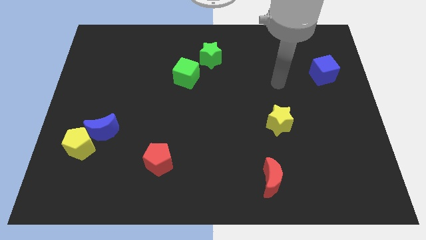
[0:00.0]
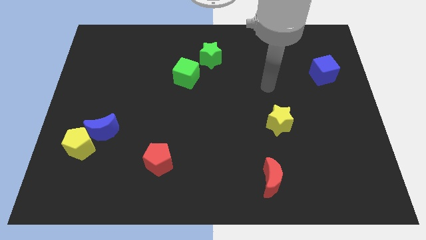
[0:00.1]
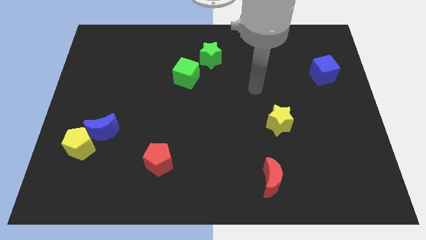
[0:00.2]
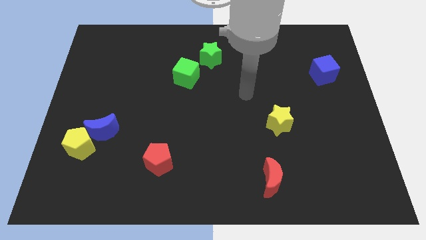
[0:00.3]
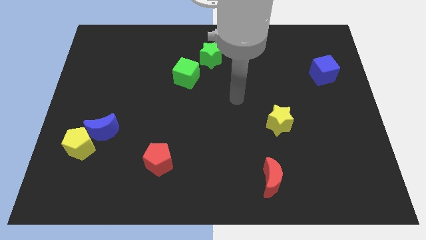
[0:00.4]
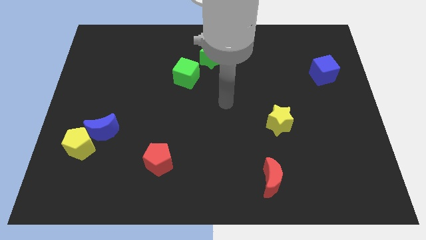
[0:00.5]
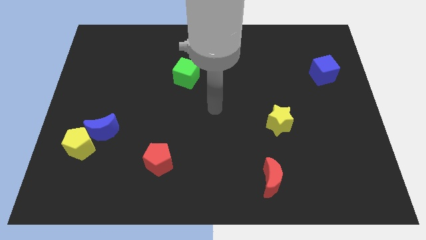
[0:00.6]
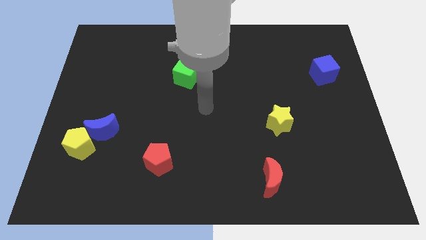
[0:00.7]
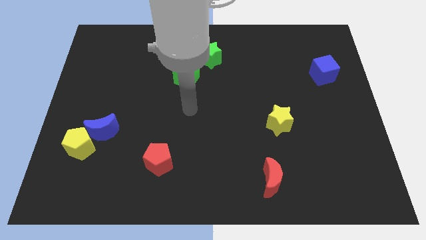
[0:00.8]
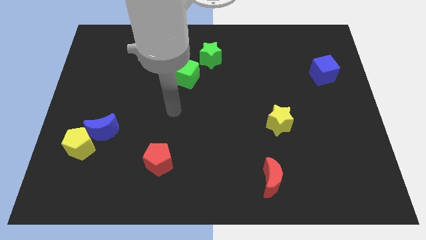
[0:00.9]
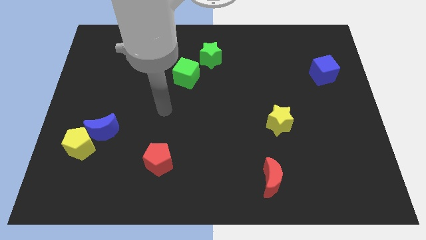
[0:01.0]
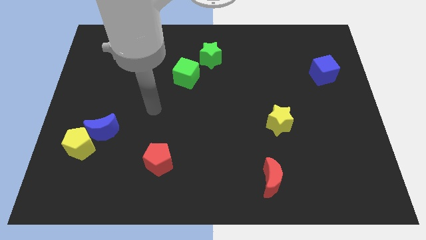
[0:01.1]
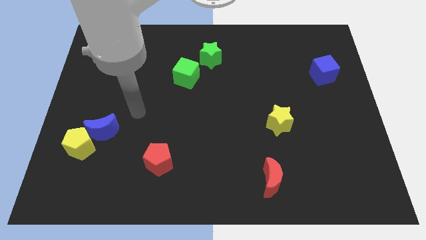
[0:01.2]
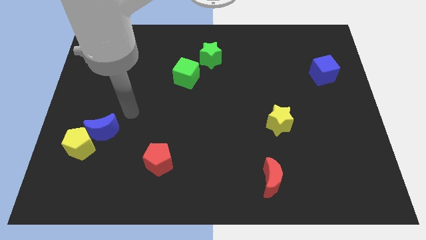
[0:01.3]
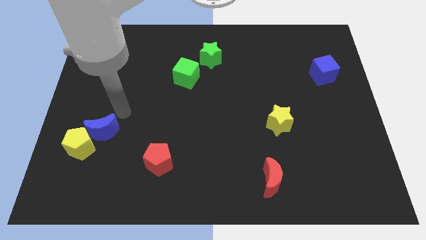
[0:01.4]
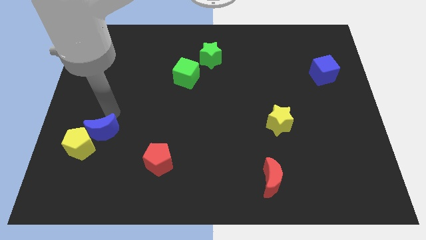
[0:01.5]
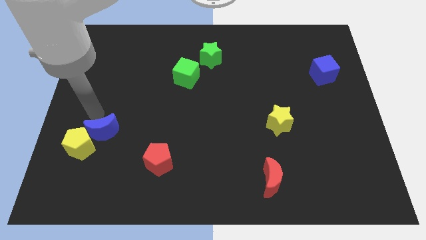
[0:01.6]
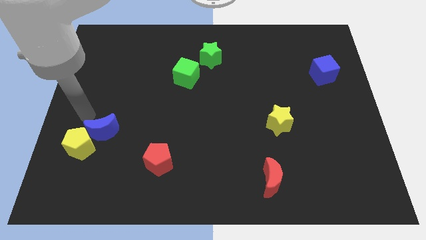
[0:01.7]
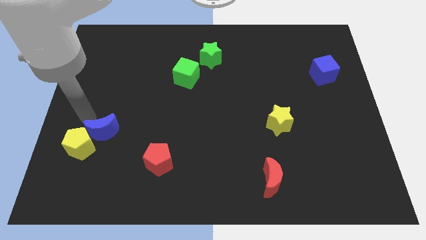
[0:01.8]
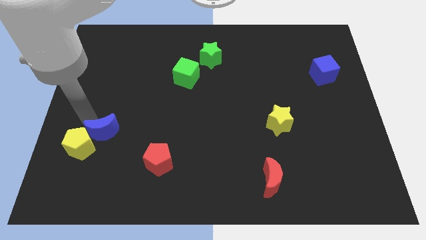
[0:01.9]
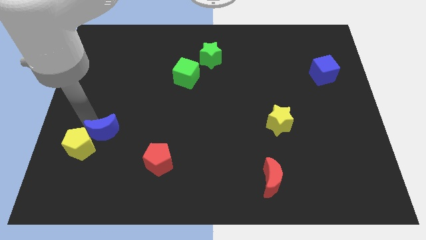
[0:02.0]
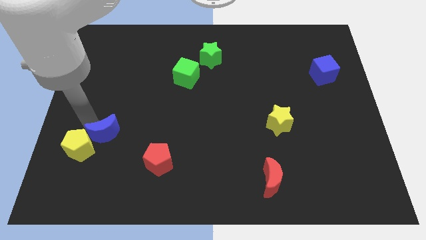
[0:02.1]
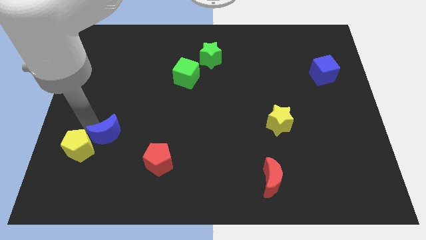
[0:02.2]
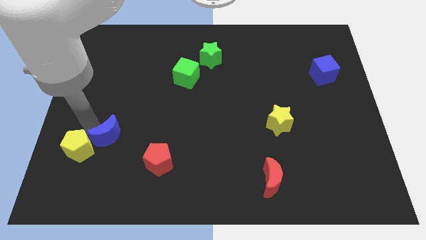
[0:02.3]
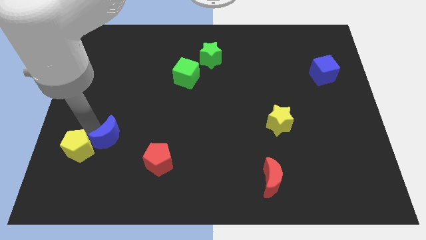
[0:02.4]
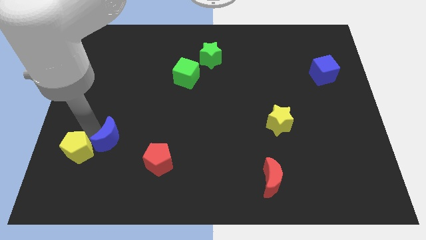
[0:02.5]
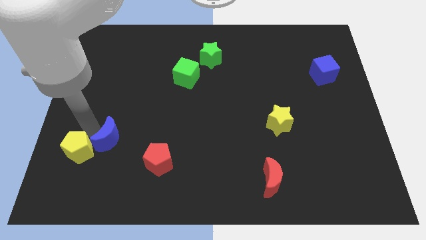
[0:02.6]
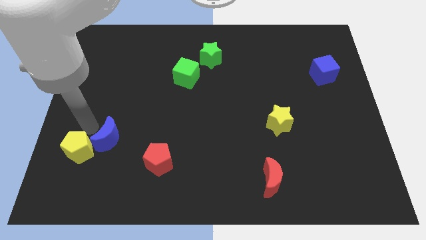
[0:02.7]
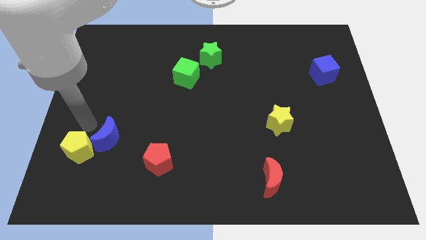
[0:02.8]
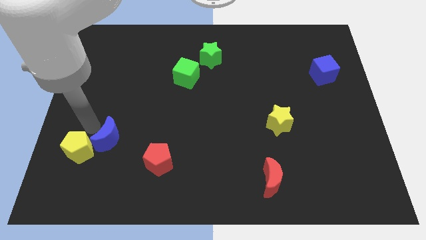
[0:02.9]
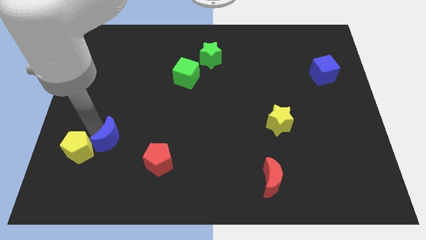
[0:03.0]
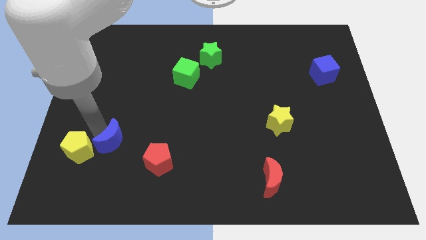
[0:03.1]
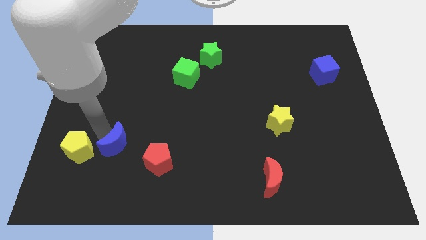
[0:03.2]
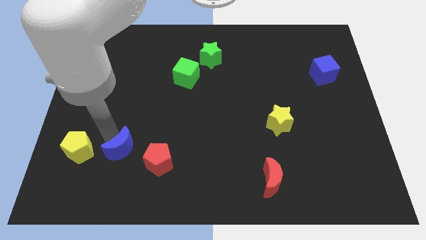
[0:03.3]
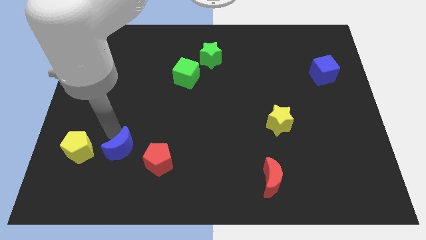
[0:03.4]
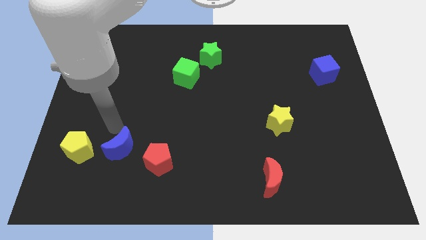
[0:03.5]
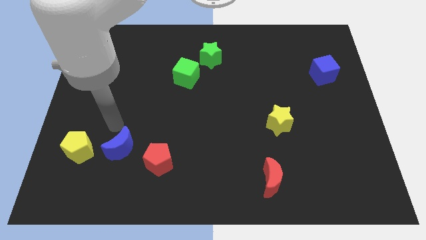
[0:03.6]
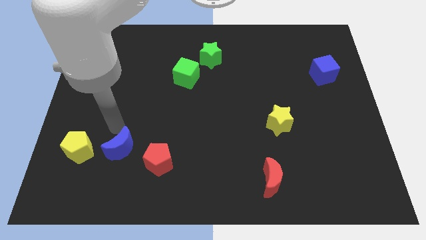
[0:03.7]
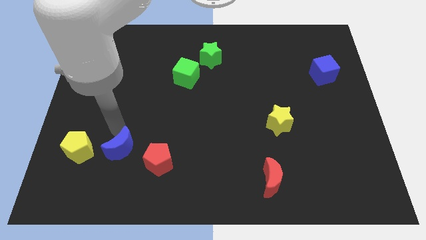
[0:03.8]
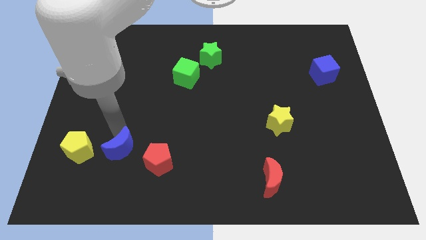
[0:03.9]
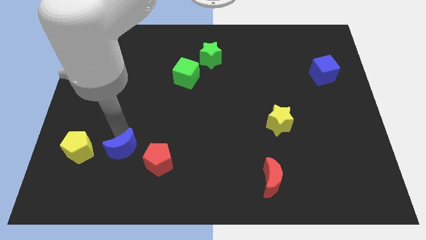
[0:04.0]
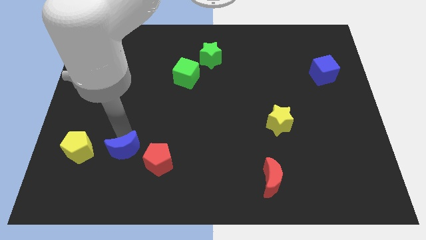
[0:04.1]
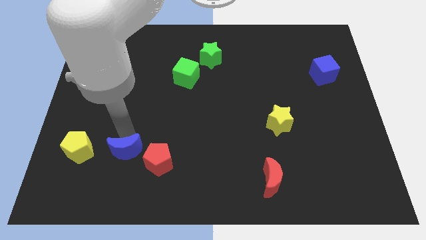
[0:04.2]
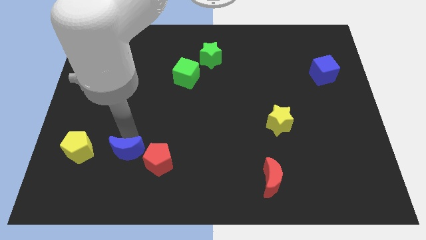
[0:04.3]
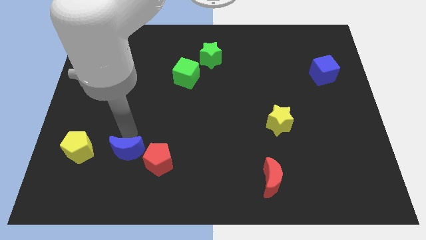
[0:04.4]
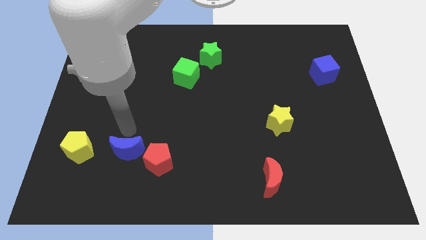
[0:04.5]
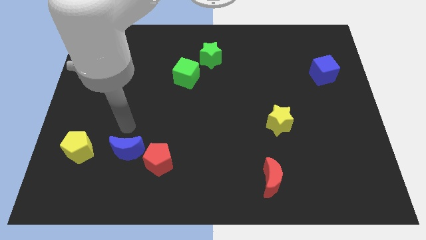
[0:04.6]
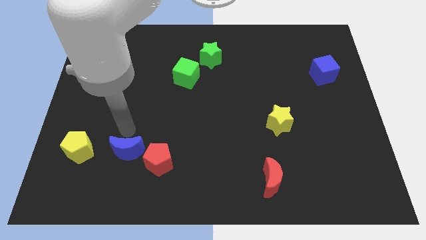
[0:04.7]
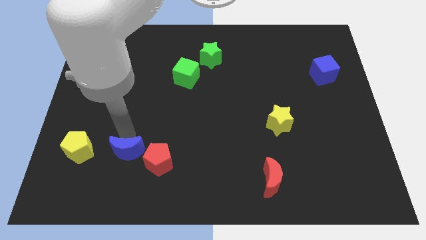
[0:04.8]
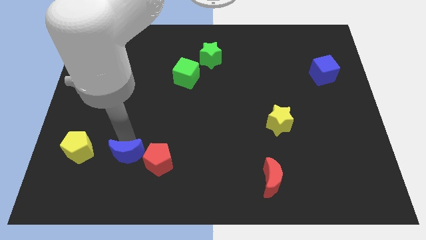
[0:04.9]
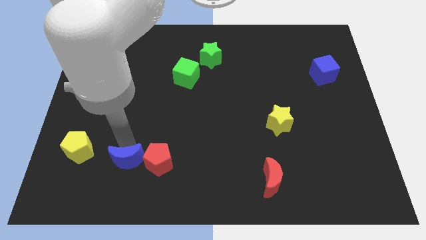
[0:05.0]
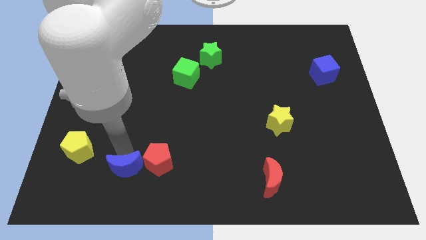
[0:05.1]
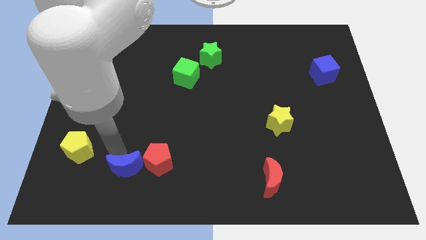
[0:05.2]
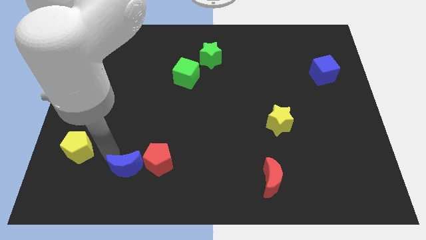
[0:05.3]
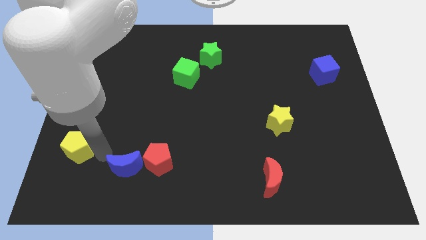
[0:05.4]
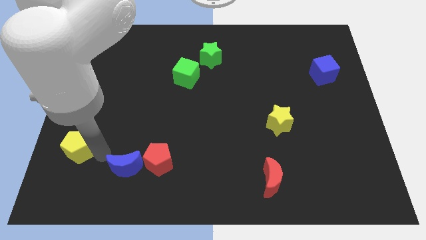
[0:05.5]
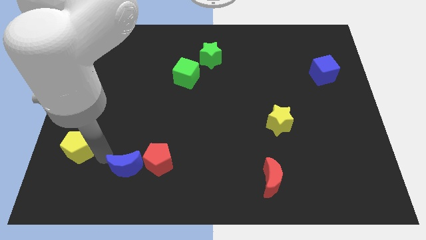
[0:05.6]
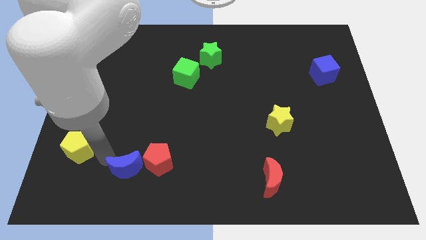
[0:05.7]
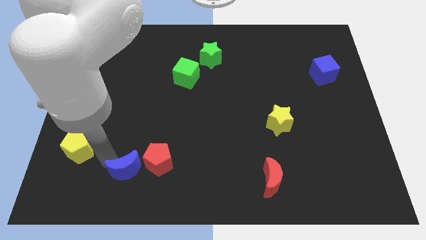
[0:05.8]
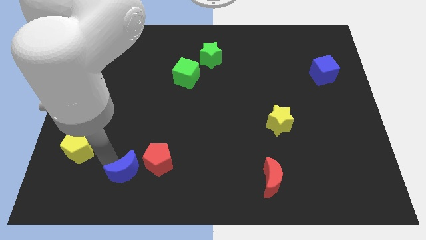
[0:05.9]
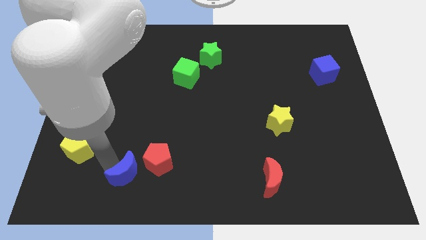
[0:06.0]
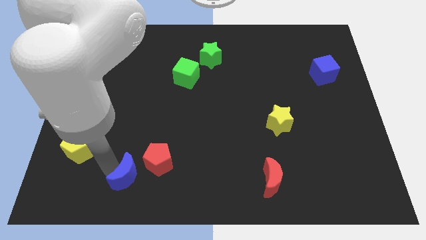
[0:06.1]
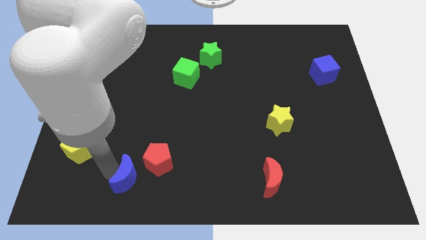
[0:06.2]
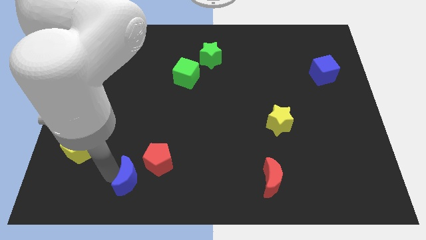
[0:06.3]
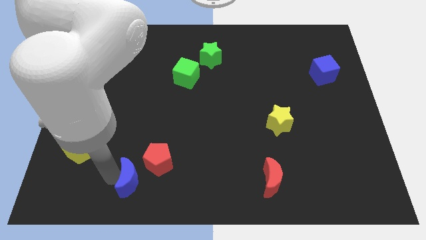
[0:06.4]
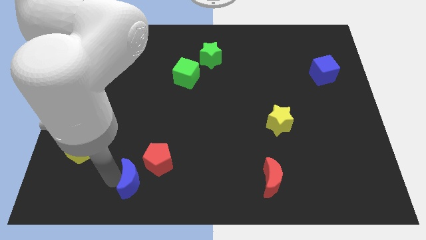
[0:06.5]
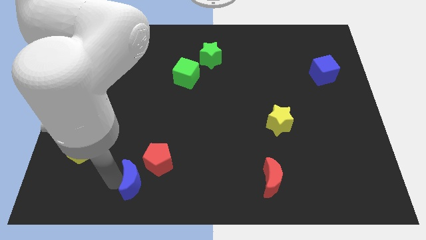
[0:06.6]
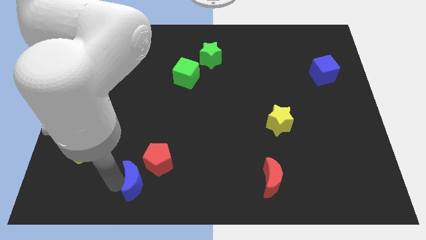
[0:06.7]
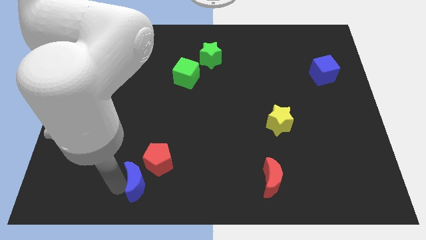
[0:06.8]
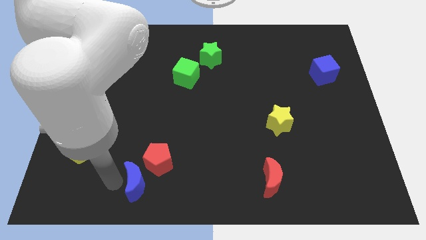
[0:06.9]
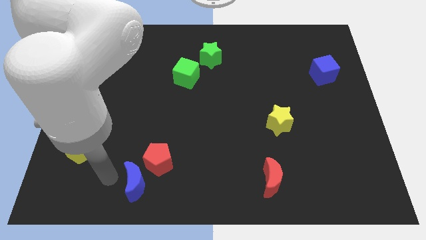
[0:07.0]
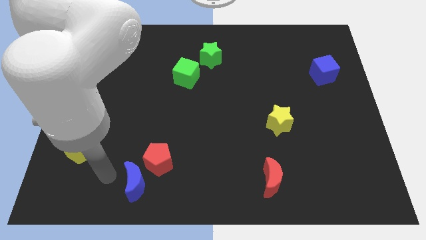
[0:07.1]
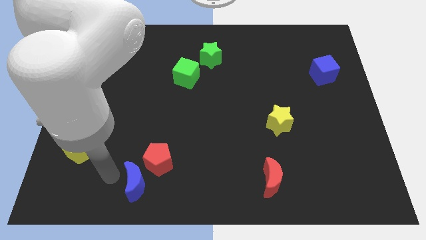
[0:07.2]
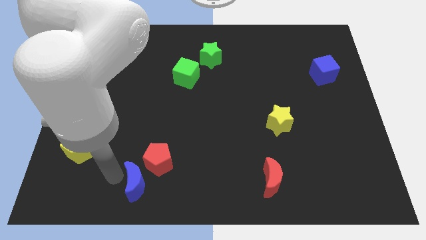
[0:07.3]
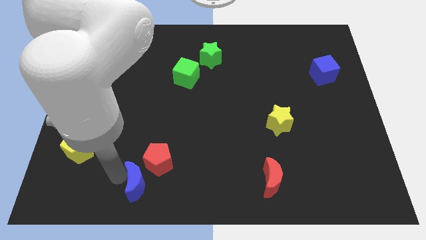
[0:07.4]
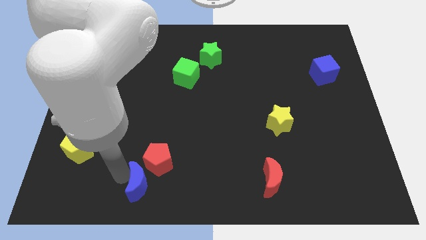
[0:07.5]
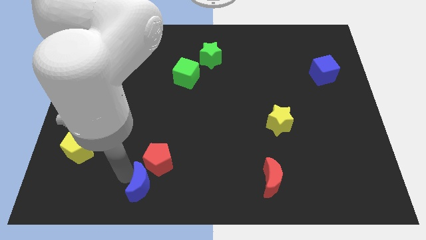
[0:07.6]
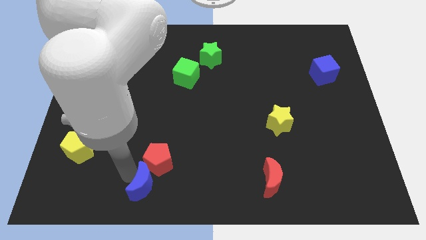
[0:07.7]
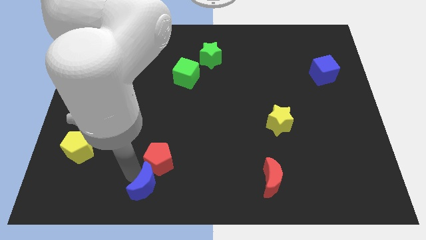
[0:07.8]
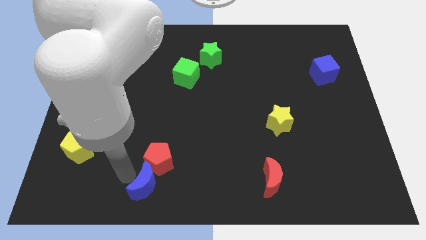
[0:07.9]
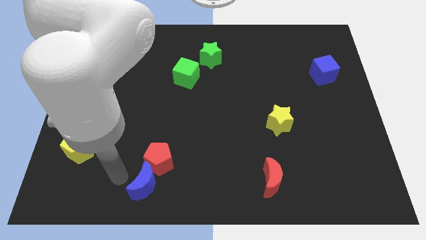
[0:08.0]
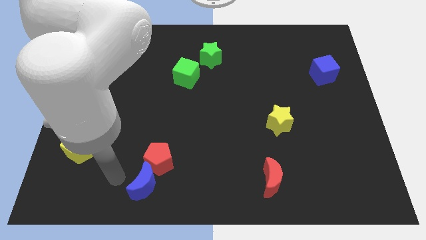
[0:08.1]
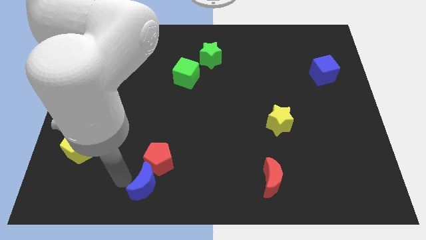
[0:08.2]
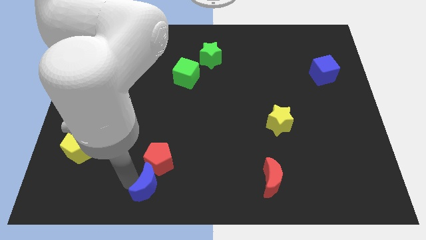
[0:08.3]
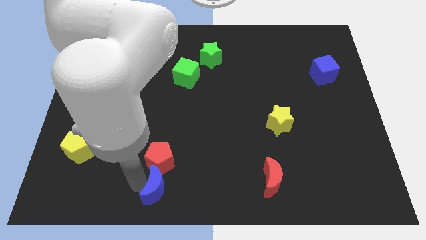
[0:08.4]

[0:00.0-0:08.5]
push the blue moon to the bottom
